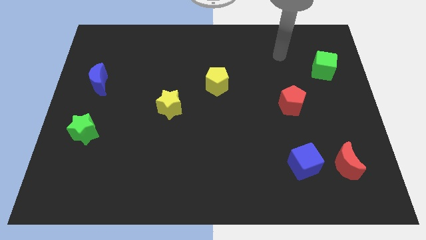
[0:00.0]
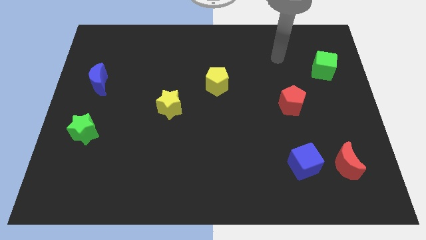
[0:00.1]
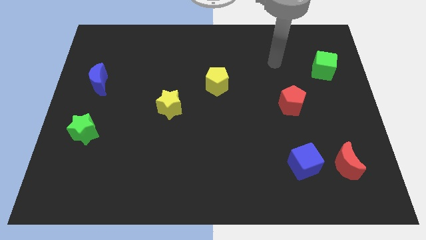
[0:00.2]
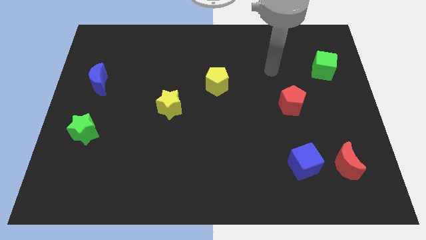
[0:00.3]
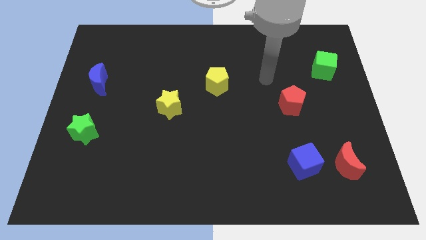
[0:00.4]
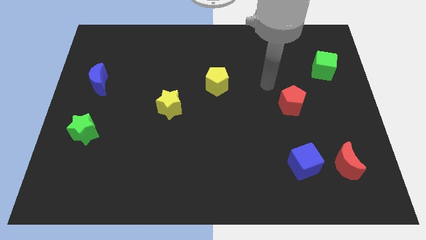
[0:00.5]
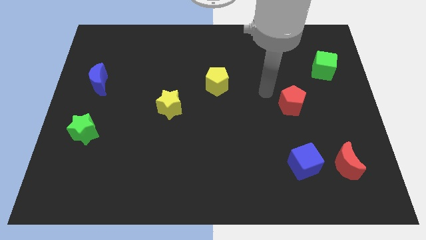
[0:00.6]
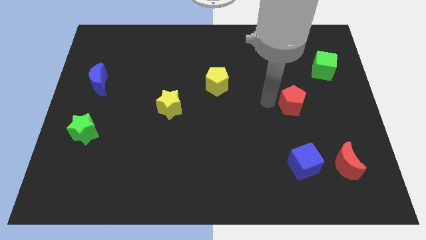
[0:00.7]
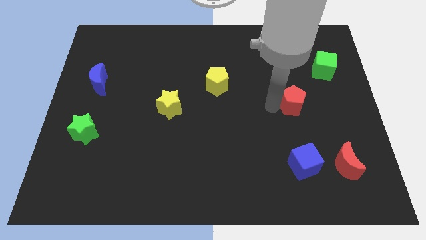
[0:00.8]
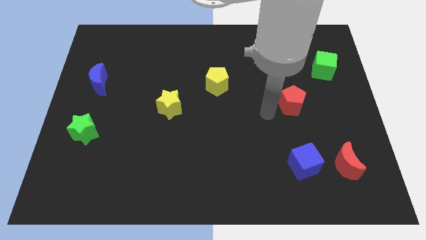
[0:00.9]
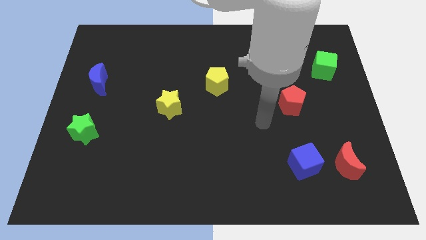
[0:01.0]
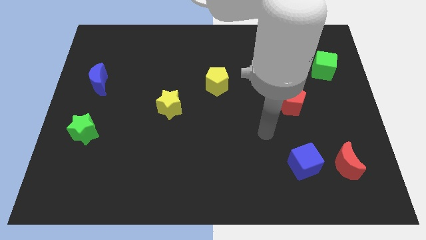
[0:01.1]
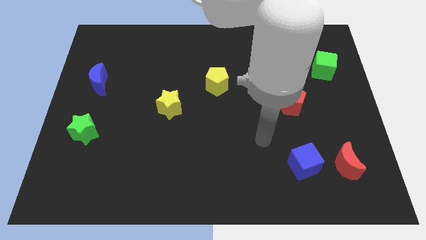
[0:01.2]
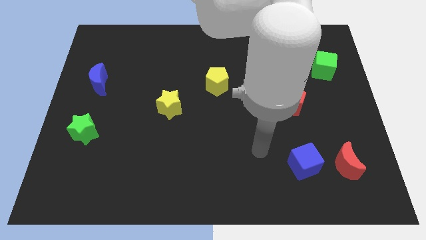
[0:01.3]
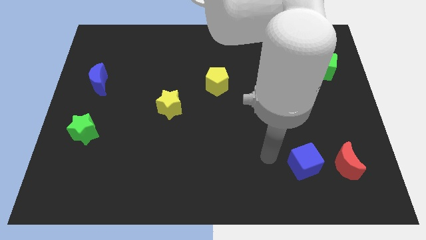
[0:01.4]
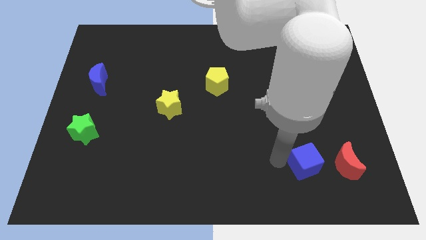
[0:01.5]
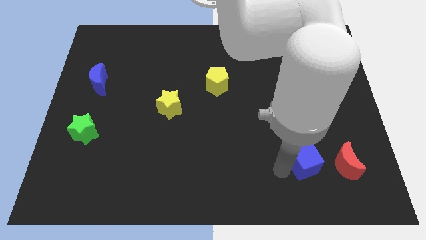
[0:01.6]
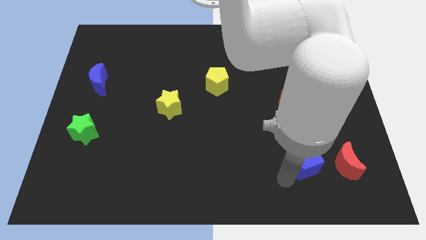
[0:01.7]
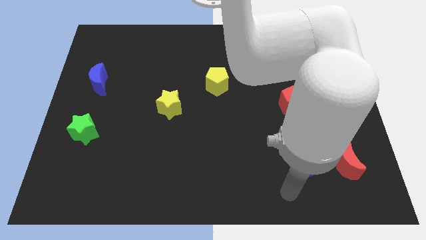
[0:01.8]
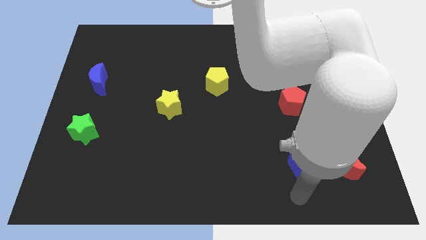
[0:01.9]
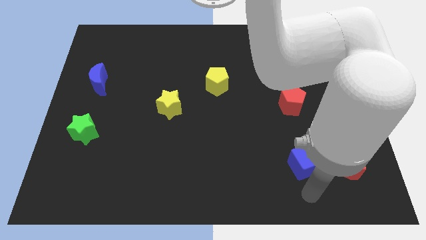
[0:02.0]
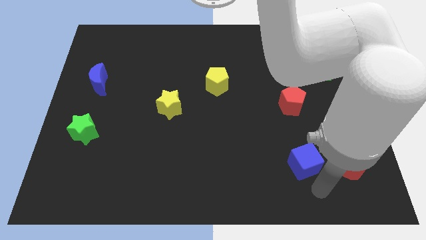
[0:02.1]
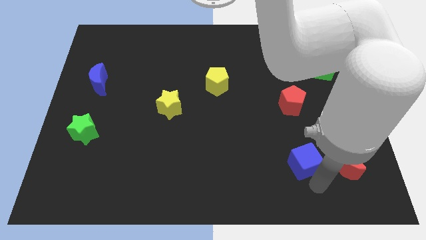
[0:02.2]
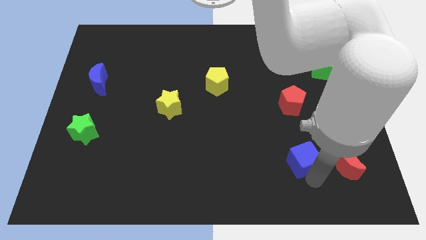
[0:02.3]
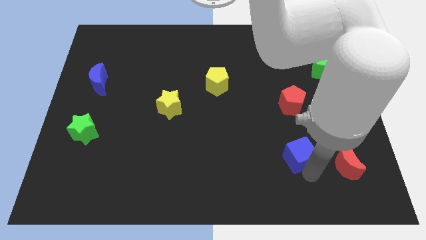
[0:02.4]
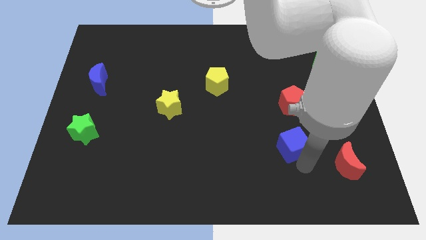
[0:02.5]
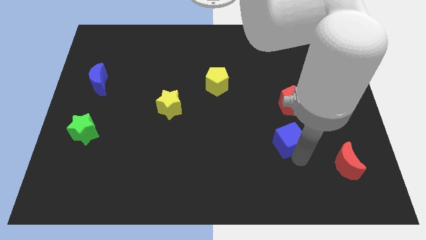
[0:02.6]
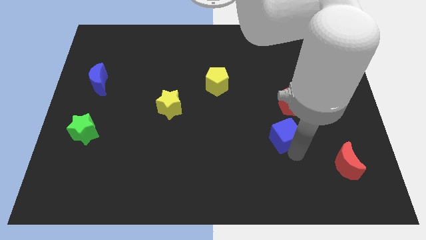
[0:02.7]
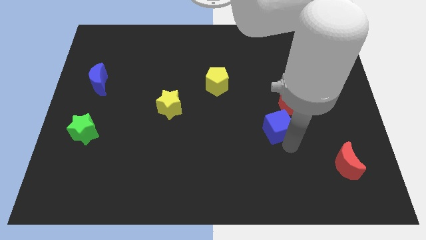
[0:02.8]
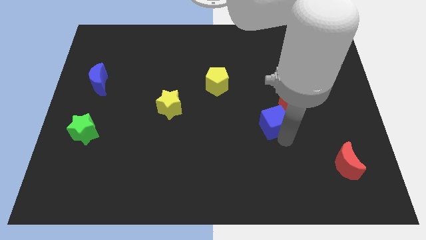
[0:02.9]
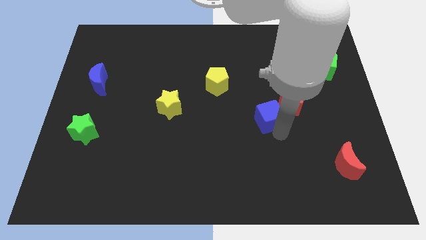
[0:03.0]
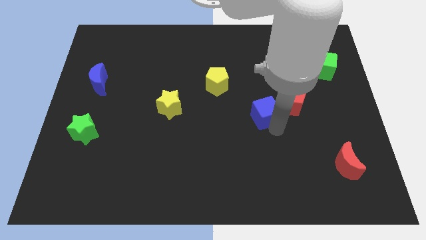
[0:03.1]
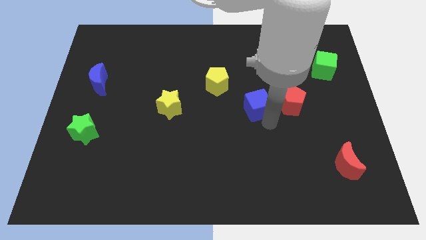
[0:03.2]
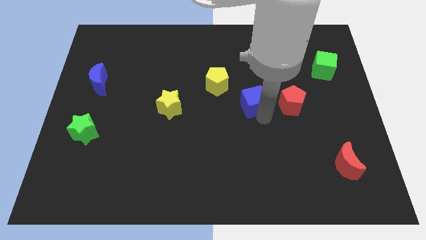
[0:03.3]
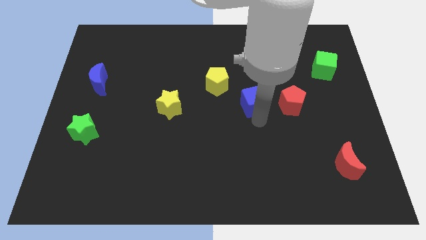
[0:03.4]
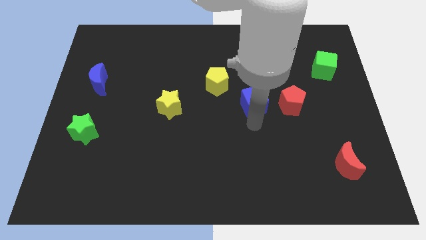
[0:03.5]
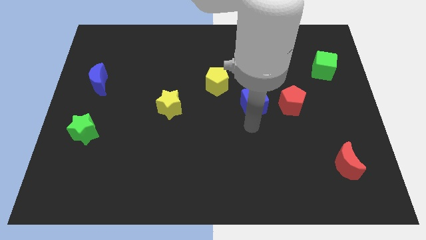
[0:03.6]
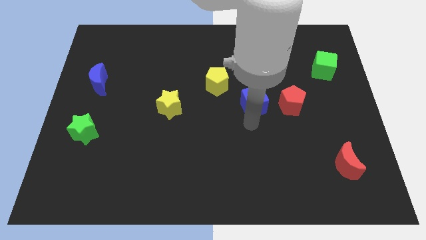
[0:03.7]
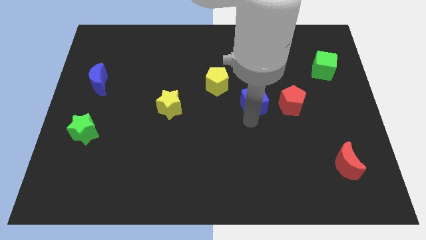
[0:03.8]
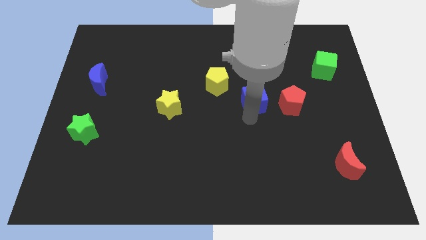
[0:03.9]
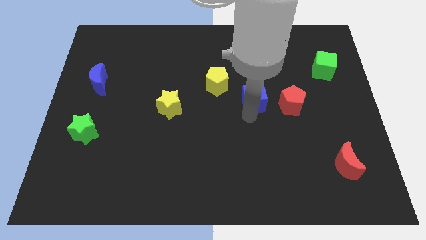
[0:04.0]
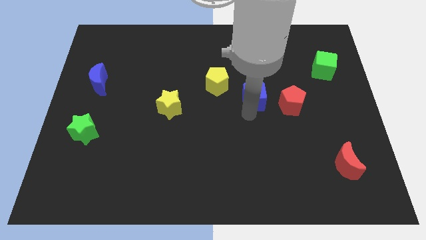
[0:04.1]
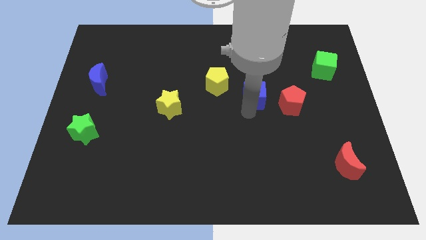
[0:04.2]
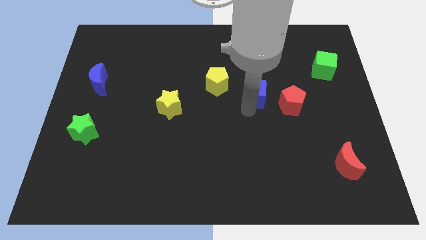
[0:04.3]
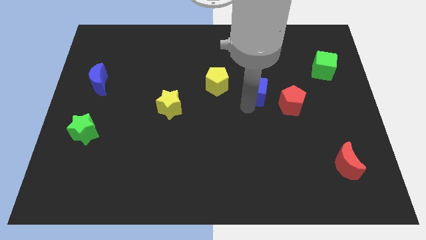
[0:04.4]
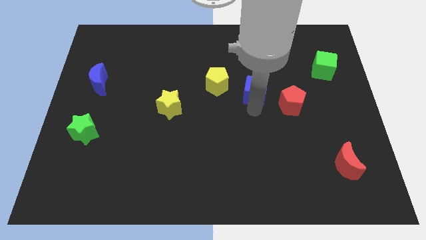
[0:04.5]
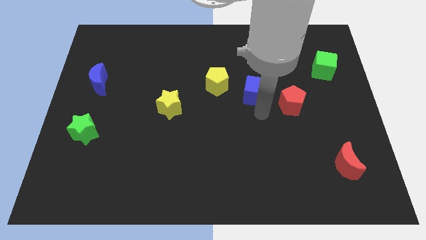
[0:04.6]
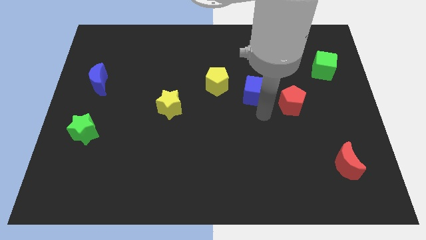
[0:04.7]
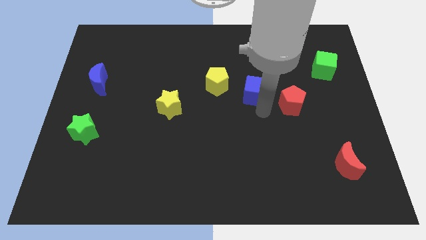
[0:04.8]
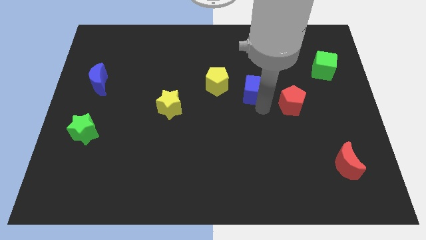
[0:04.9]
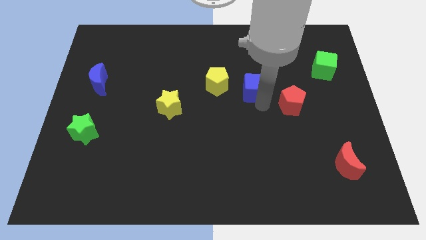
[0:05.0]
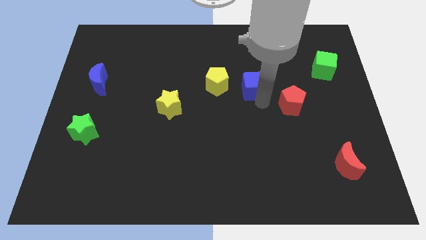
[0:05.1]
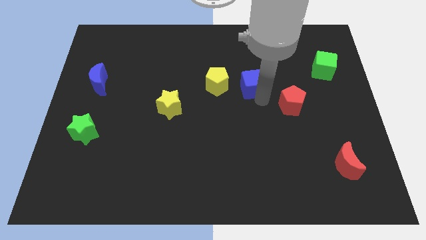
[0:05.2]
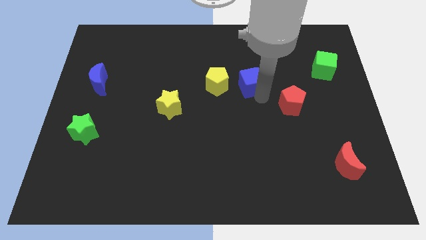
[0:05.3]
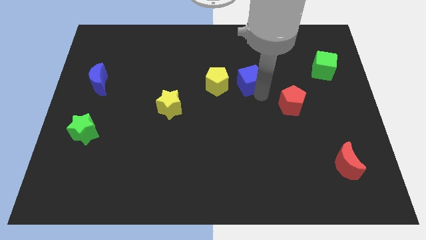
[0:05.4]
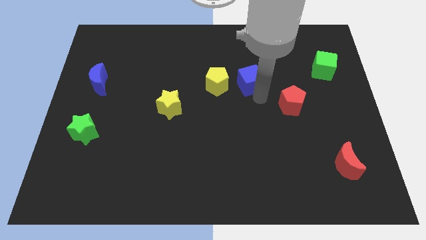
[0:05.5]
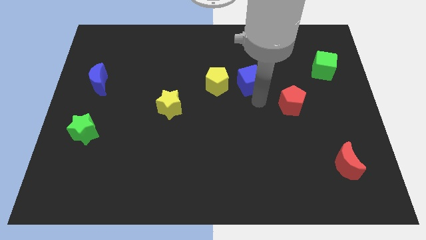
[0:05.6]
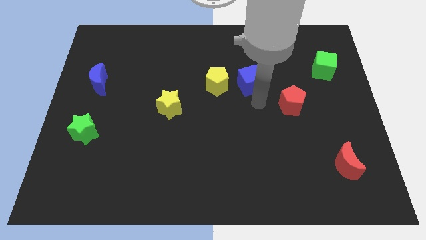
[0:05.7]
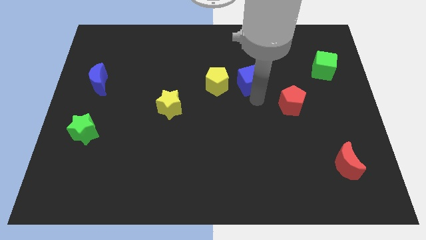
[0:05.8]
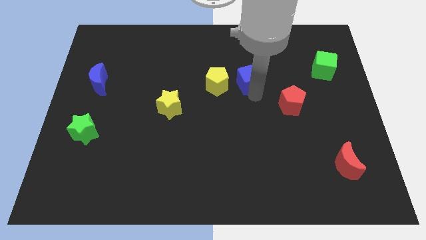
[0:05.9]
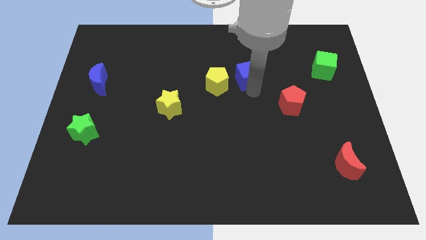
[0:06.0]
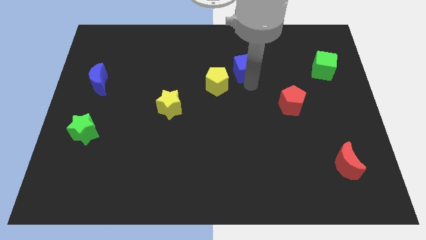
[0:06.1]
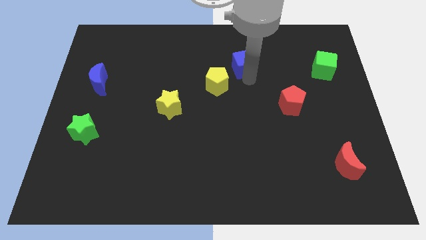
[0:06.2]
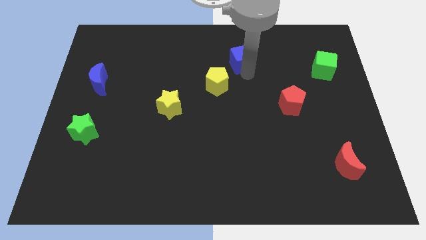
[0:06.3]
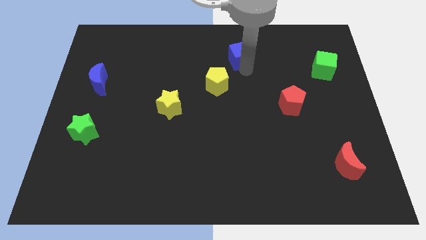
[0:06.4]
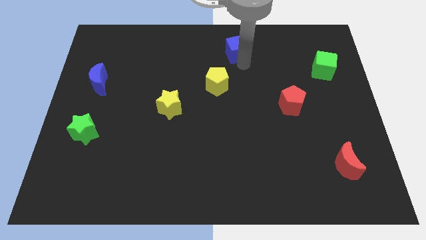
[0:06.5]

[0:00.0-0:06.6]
push the blue cube to the top side

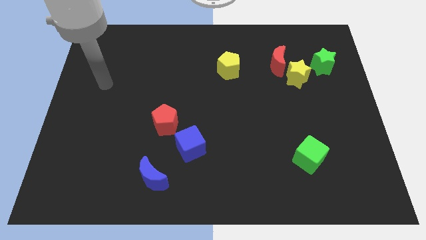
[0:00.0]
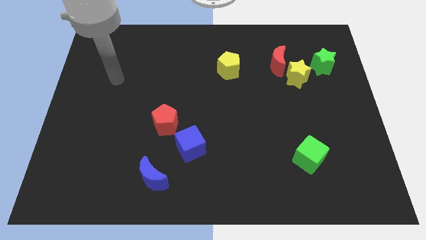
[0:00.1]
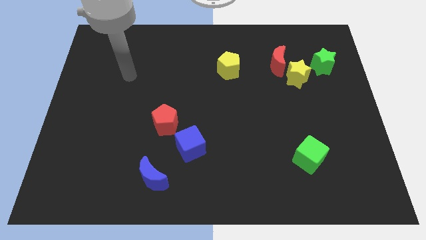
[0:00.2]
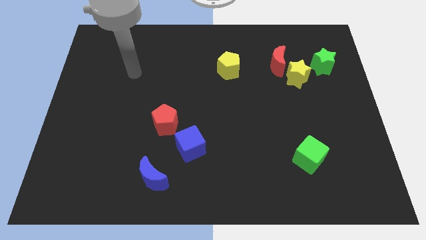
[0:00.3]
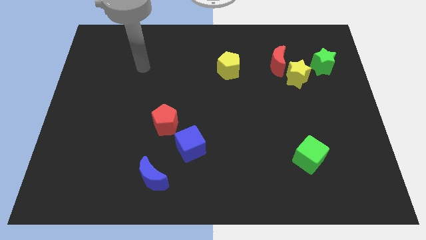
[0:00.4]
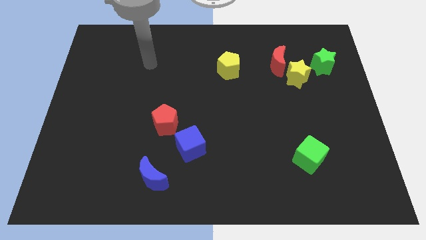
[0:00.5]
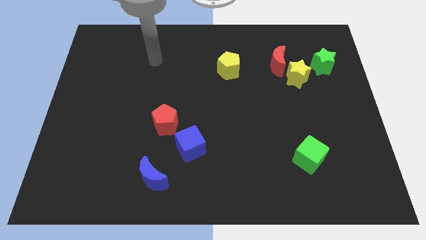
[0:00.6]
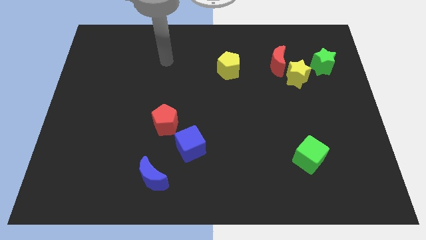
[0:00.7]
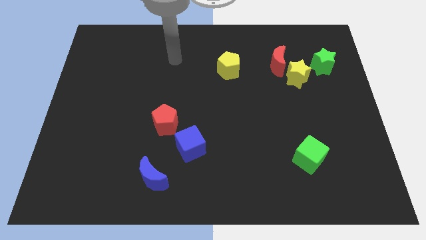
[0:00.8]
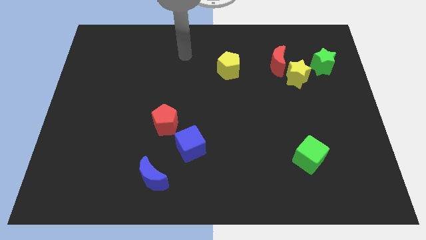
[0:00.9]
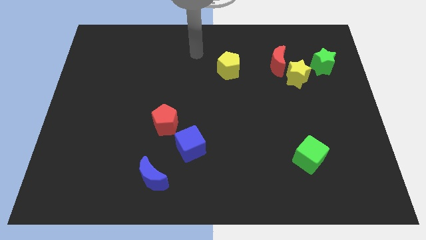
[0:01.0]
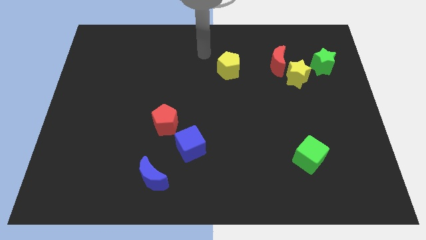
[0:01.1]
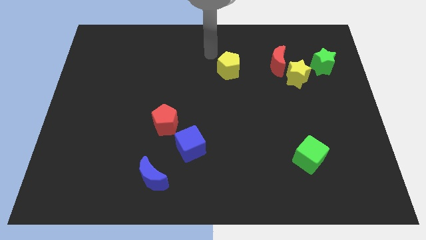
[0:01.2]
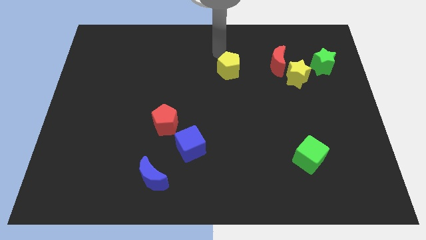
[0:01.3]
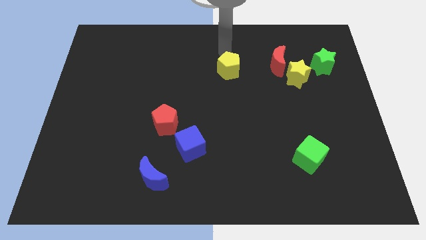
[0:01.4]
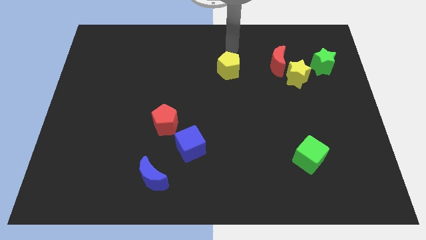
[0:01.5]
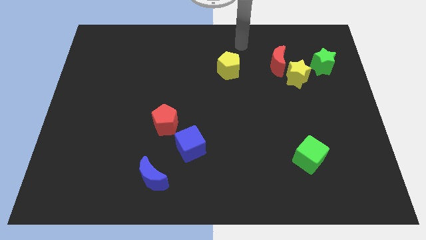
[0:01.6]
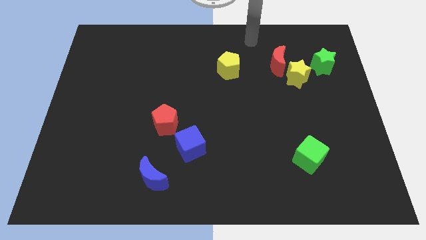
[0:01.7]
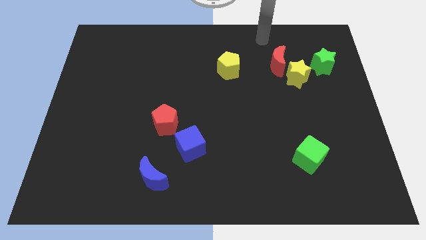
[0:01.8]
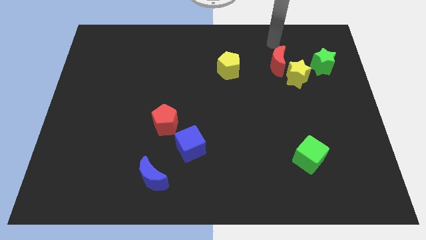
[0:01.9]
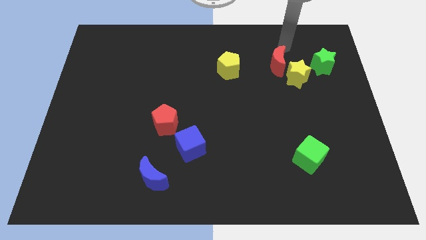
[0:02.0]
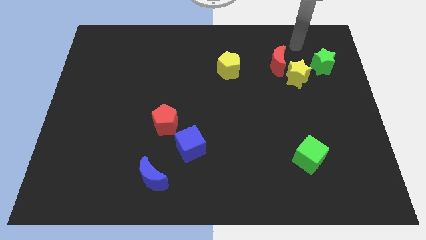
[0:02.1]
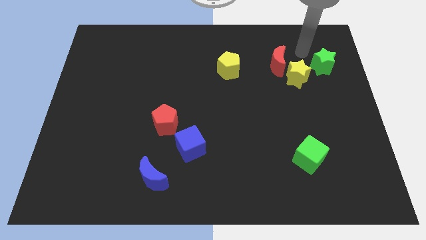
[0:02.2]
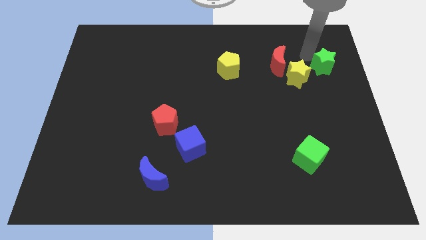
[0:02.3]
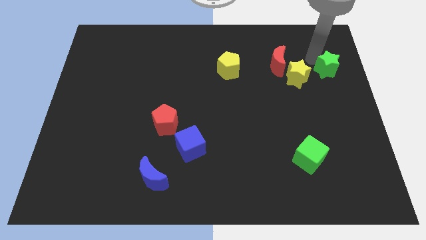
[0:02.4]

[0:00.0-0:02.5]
push the green star to the right side of the board
